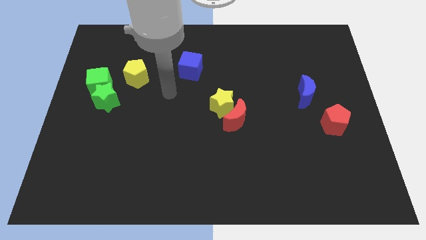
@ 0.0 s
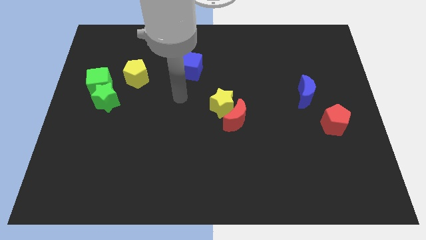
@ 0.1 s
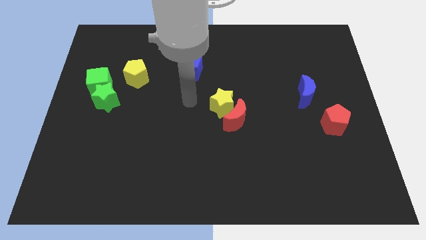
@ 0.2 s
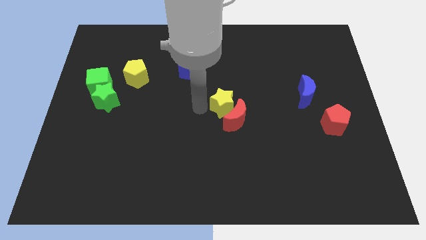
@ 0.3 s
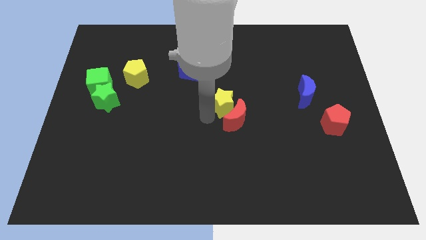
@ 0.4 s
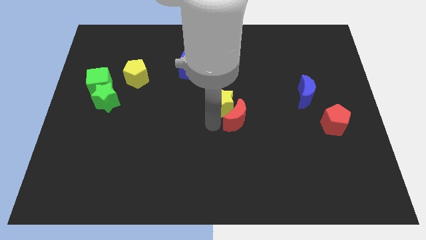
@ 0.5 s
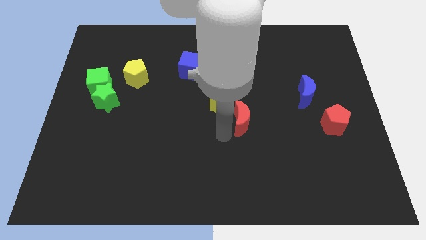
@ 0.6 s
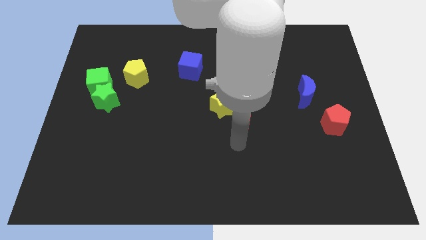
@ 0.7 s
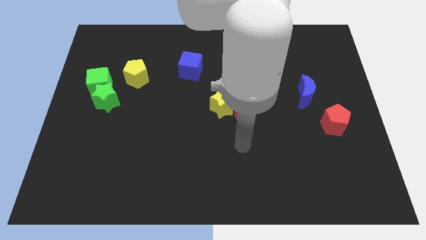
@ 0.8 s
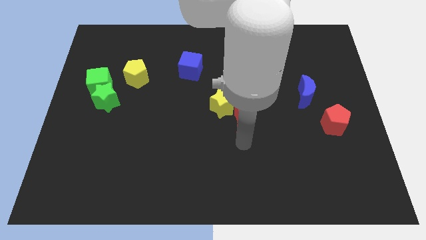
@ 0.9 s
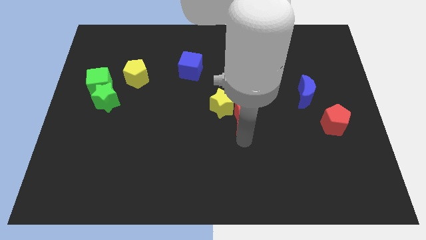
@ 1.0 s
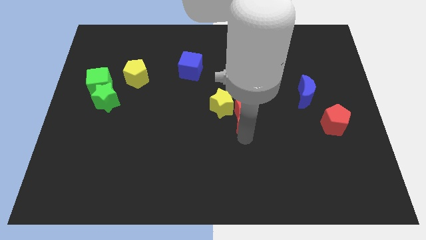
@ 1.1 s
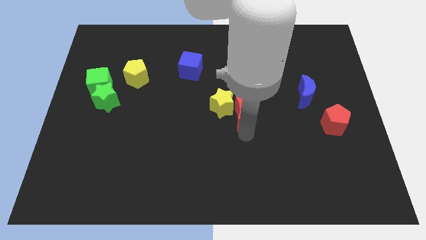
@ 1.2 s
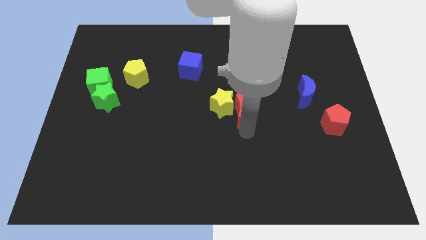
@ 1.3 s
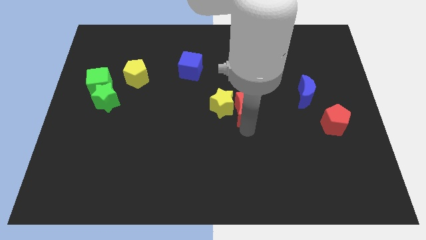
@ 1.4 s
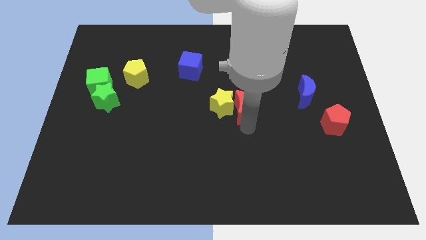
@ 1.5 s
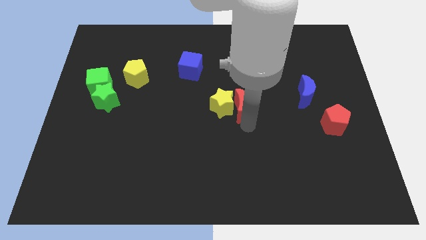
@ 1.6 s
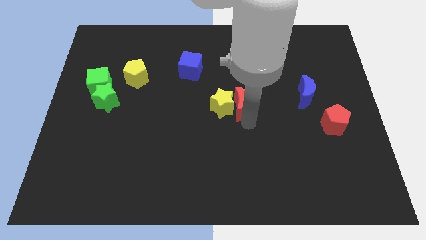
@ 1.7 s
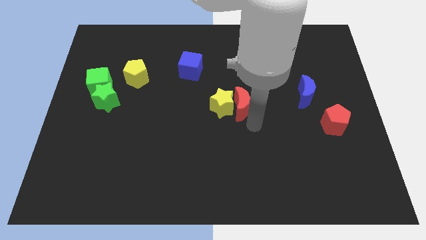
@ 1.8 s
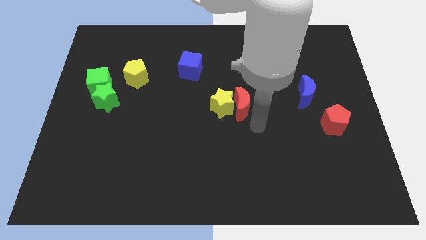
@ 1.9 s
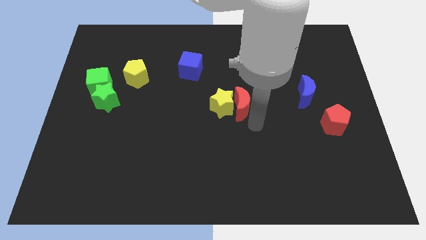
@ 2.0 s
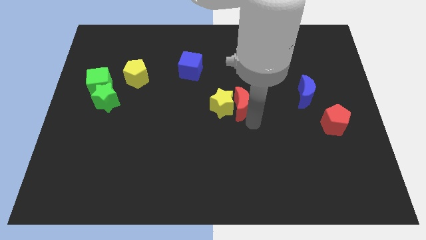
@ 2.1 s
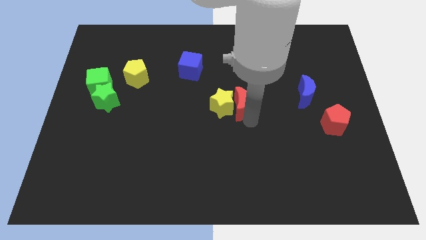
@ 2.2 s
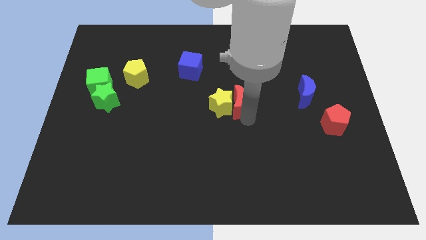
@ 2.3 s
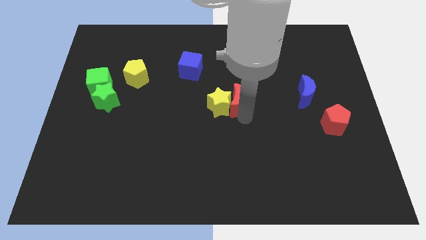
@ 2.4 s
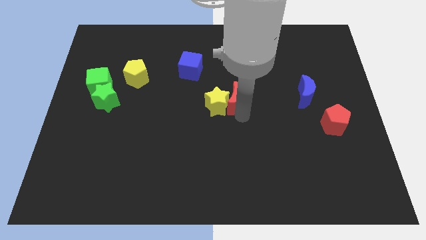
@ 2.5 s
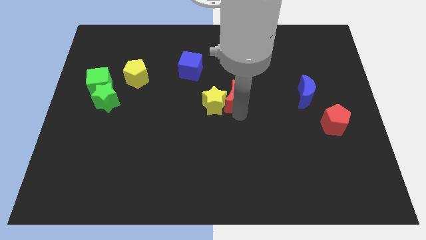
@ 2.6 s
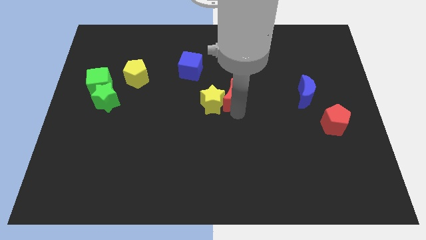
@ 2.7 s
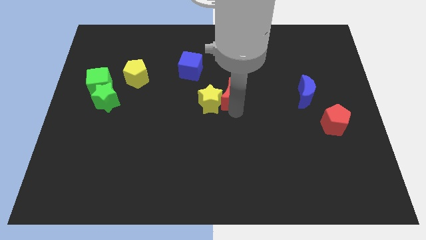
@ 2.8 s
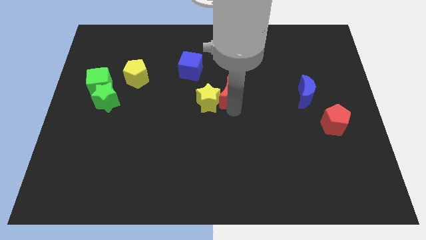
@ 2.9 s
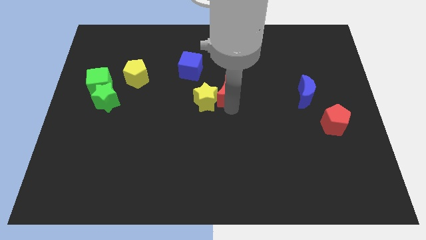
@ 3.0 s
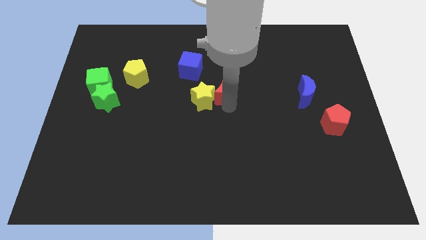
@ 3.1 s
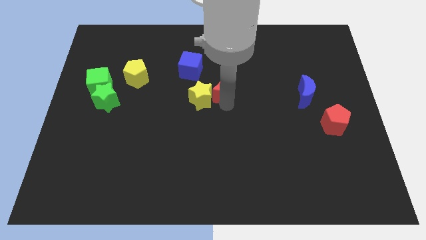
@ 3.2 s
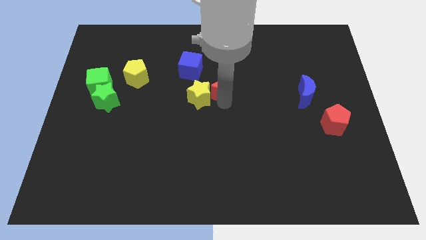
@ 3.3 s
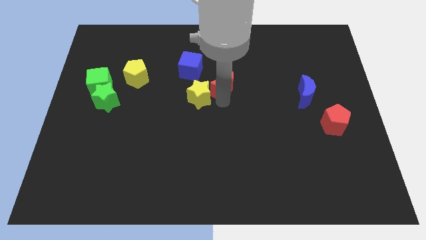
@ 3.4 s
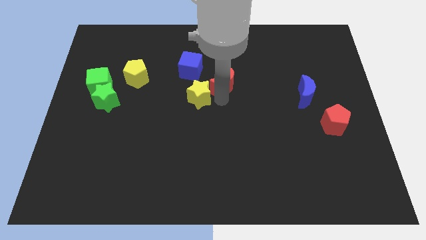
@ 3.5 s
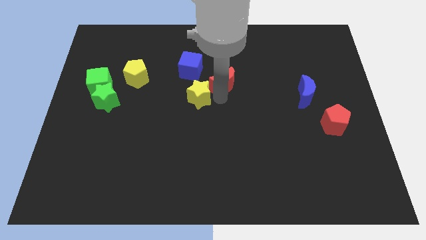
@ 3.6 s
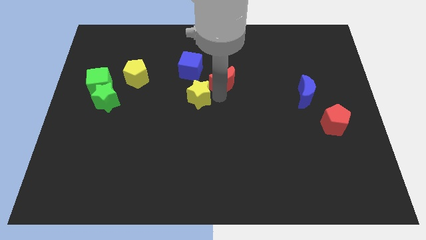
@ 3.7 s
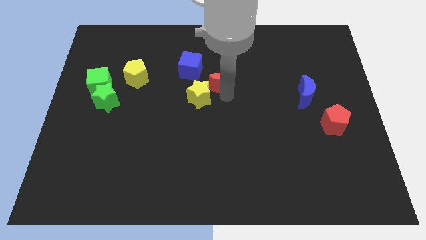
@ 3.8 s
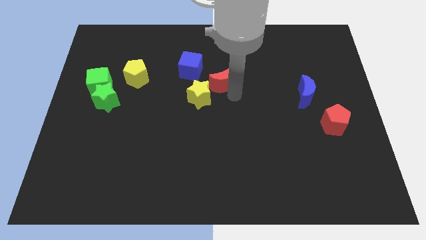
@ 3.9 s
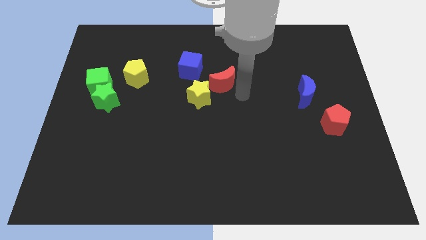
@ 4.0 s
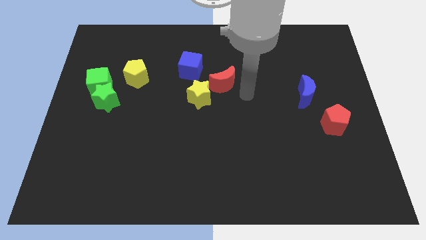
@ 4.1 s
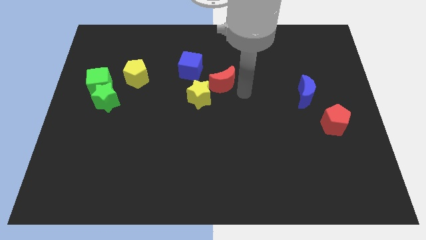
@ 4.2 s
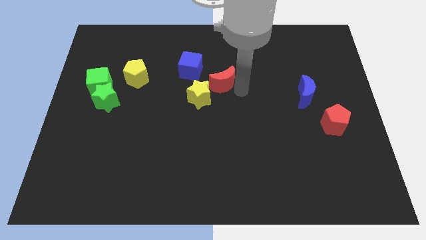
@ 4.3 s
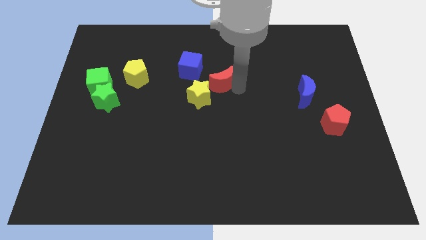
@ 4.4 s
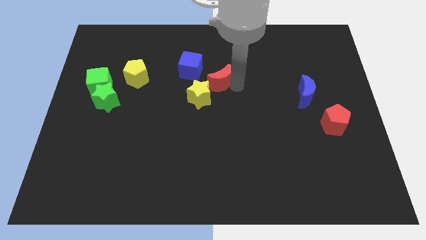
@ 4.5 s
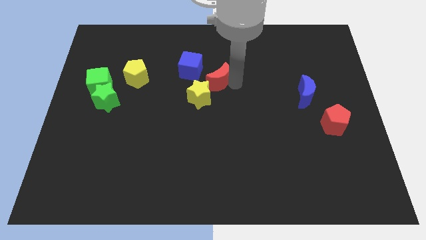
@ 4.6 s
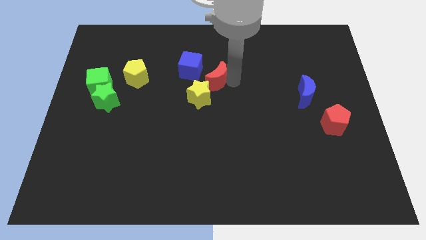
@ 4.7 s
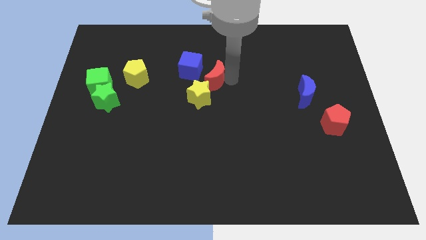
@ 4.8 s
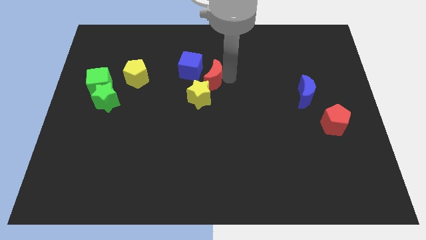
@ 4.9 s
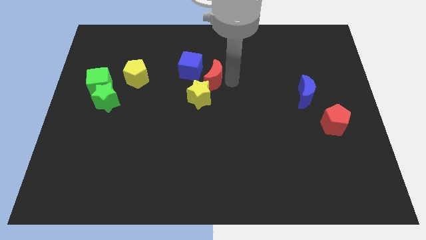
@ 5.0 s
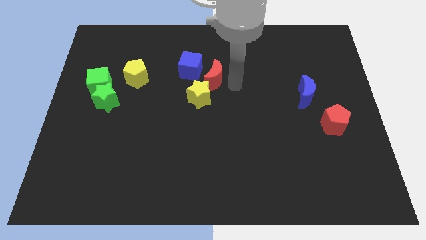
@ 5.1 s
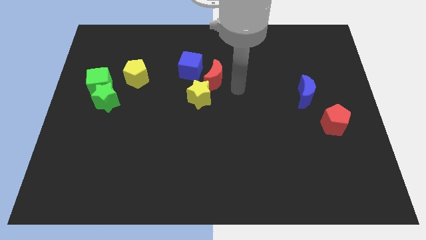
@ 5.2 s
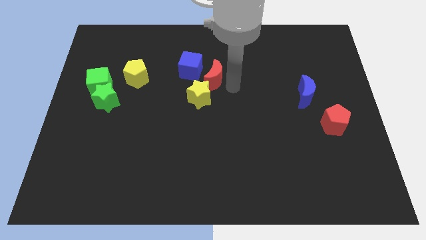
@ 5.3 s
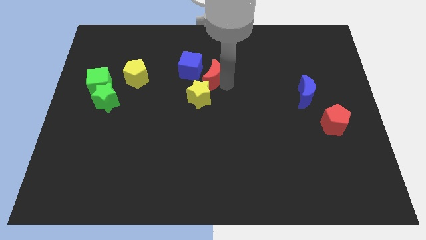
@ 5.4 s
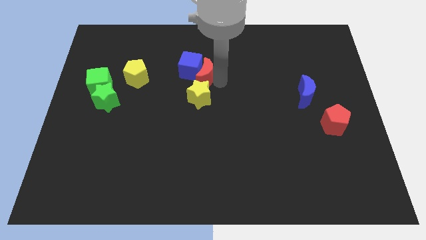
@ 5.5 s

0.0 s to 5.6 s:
slide the red moon close to the blue cube

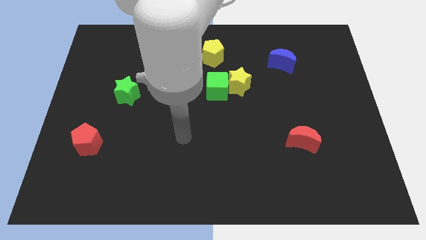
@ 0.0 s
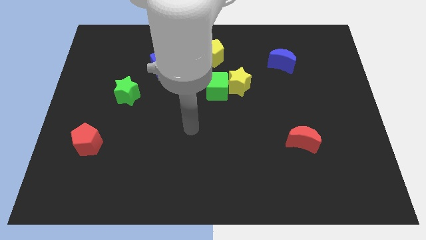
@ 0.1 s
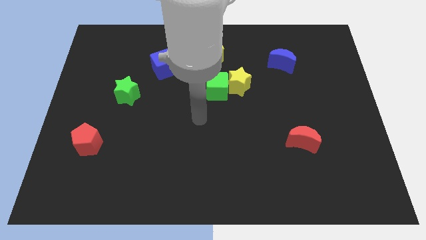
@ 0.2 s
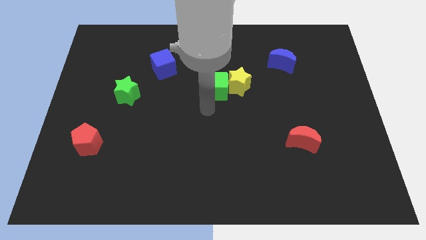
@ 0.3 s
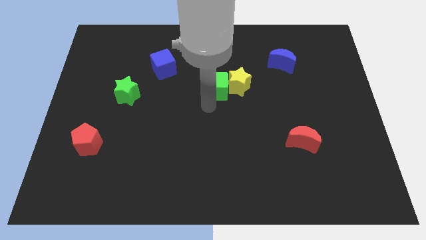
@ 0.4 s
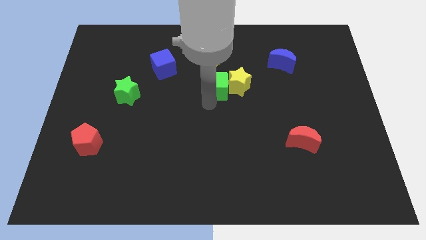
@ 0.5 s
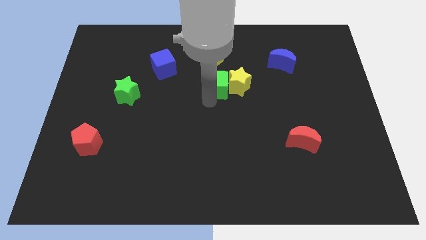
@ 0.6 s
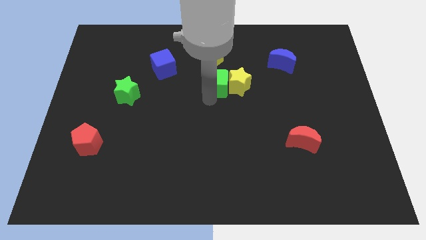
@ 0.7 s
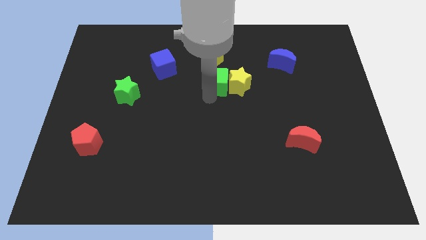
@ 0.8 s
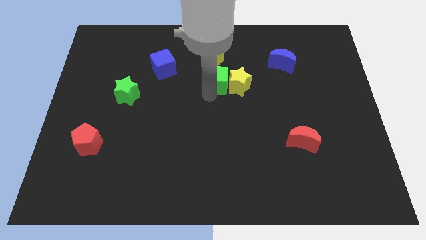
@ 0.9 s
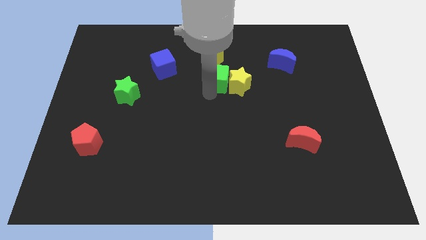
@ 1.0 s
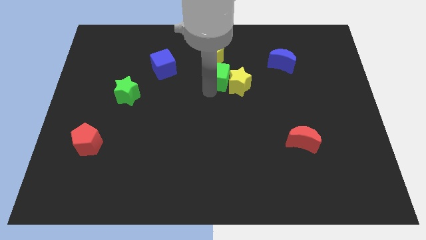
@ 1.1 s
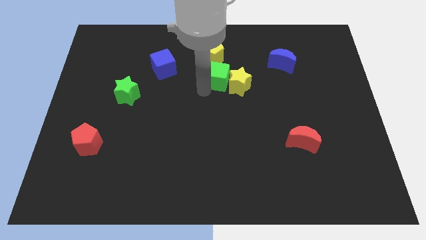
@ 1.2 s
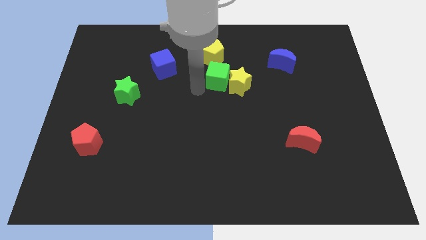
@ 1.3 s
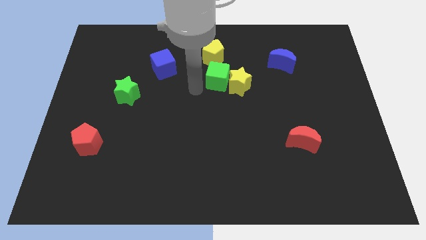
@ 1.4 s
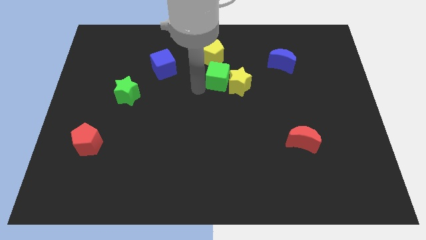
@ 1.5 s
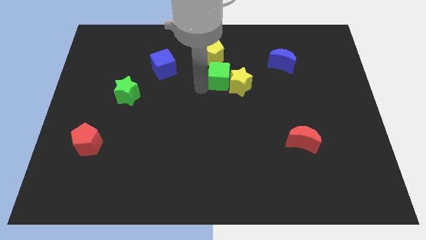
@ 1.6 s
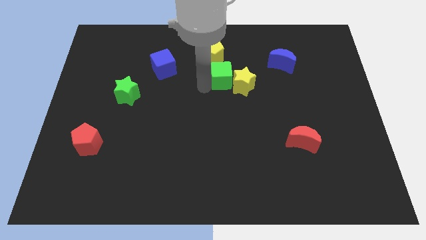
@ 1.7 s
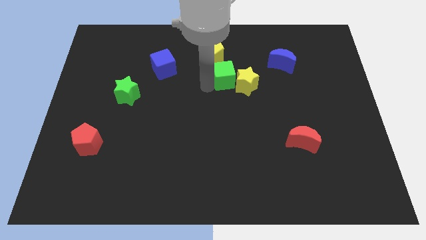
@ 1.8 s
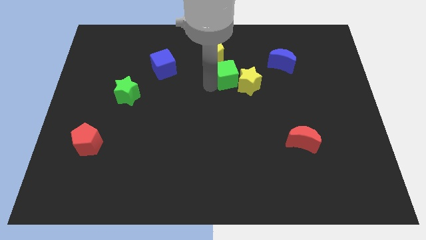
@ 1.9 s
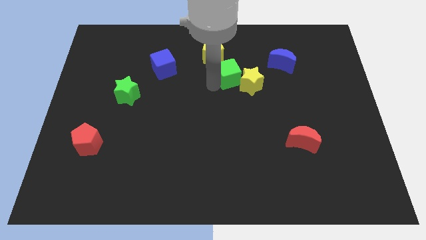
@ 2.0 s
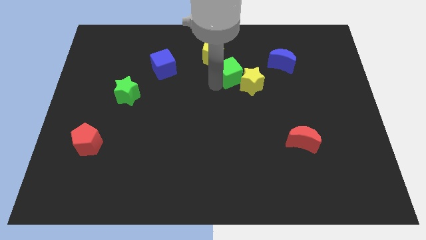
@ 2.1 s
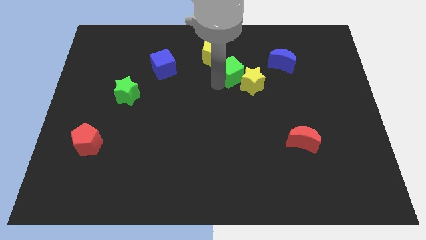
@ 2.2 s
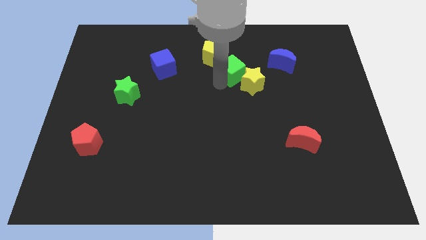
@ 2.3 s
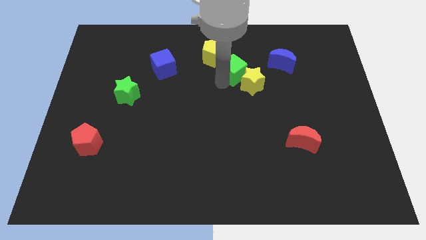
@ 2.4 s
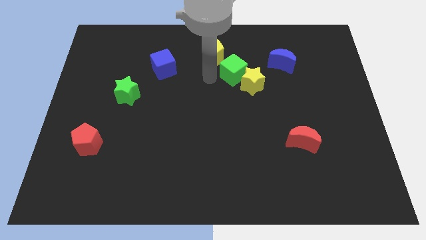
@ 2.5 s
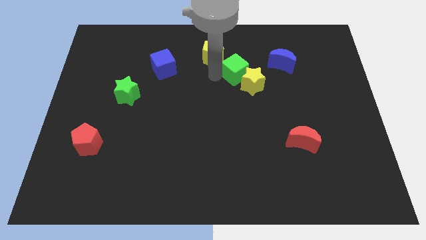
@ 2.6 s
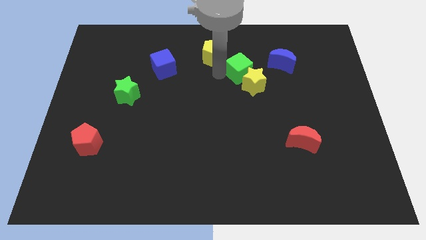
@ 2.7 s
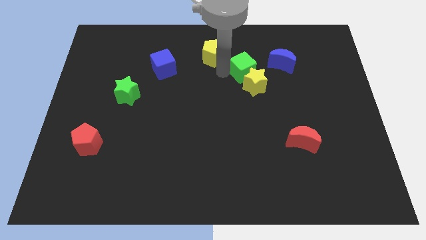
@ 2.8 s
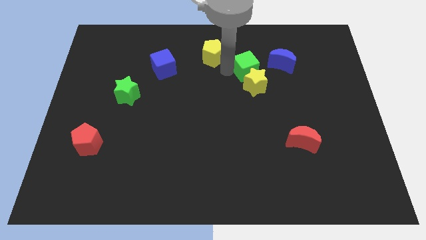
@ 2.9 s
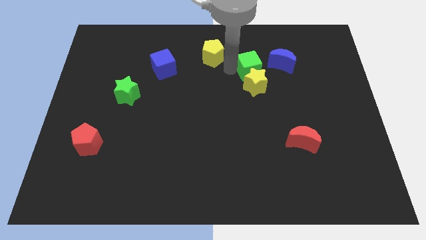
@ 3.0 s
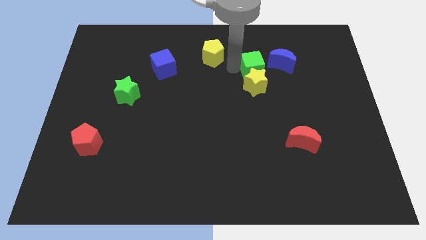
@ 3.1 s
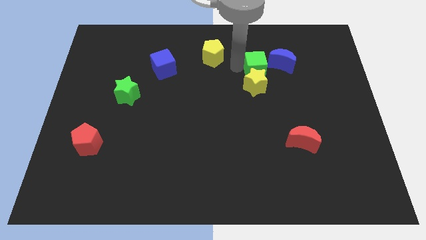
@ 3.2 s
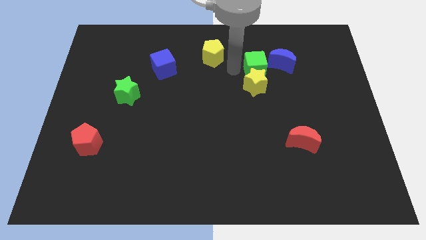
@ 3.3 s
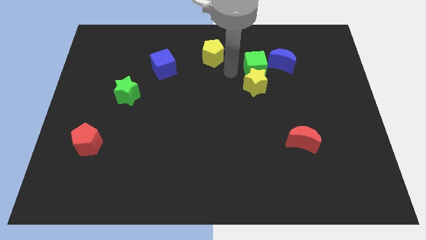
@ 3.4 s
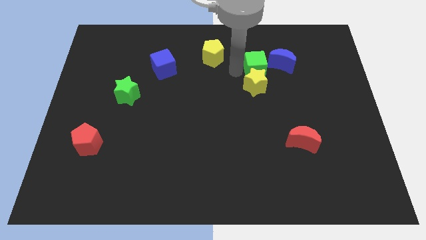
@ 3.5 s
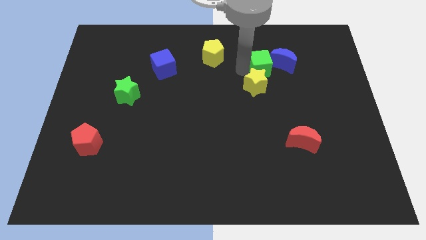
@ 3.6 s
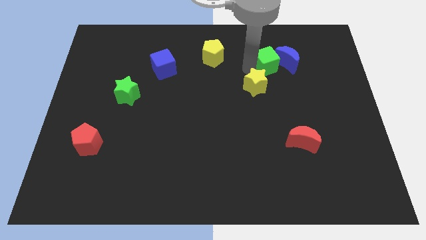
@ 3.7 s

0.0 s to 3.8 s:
push the green cube next to the blue moon
